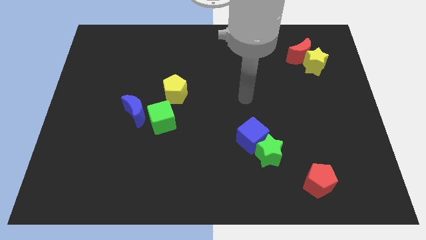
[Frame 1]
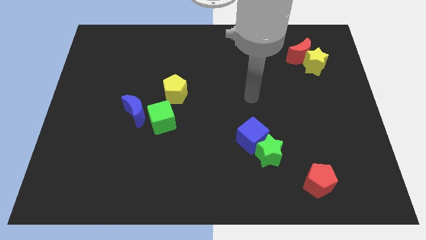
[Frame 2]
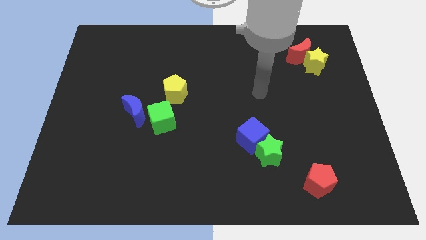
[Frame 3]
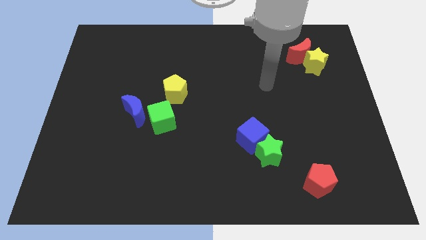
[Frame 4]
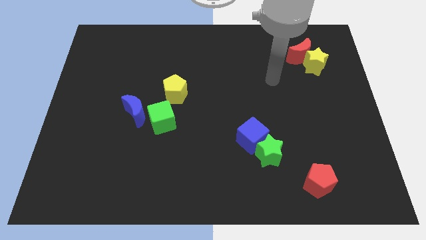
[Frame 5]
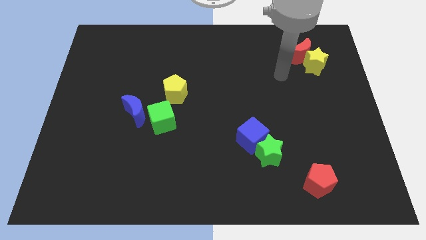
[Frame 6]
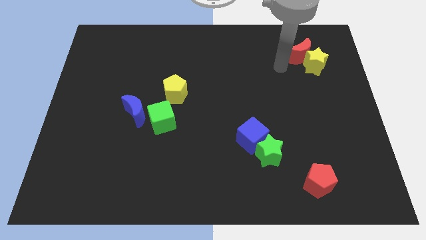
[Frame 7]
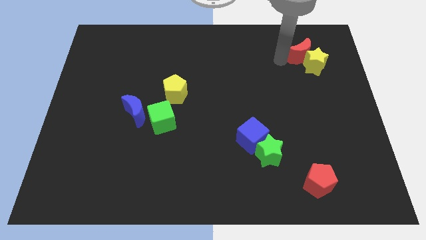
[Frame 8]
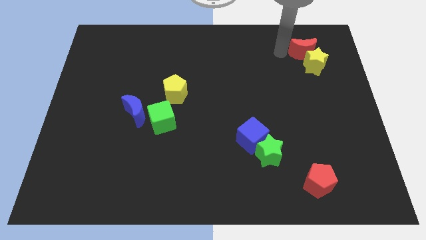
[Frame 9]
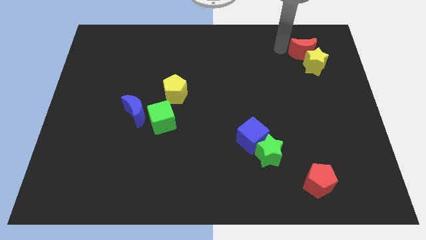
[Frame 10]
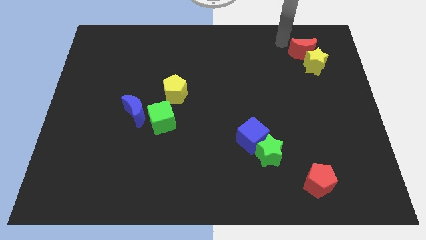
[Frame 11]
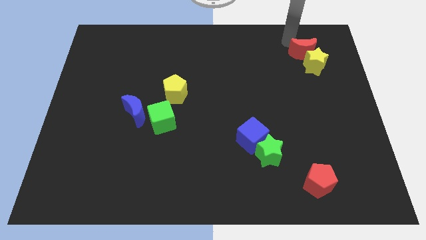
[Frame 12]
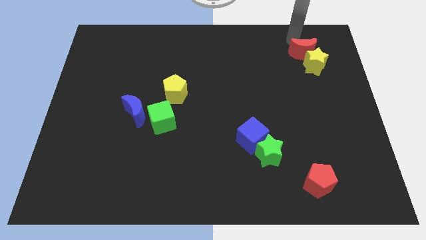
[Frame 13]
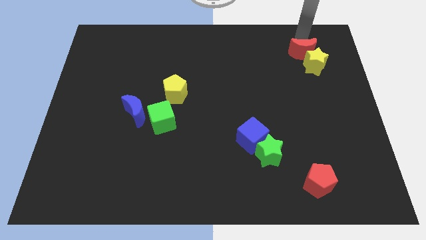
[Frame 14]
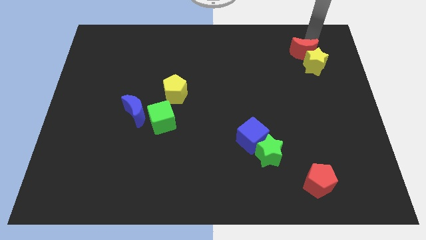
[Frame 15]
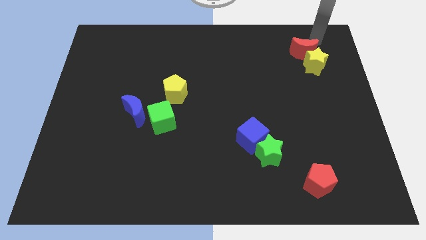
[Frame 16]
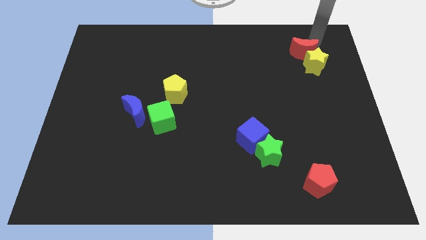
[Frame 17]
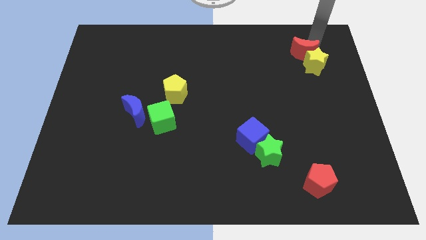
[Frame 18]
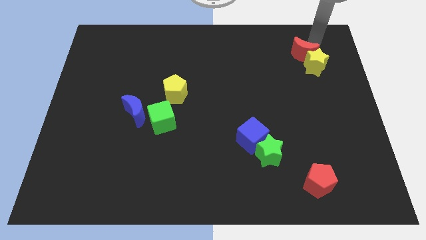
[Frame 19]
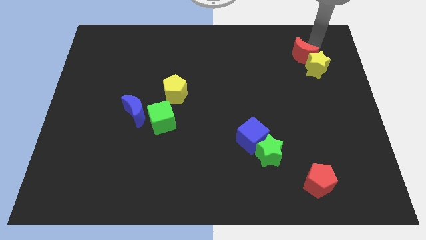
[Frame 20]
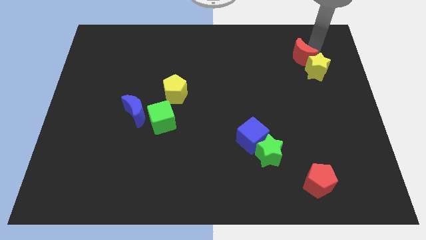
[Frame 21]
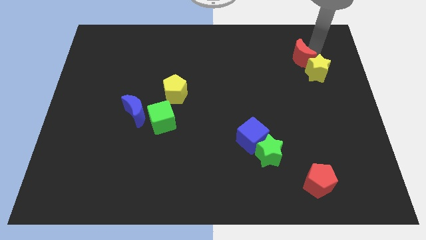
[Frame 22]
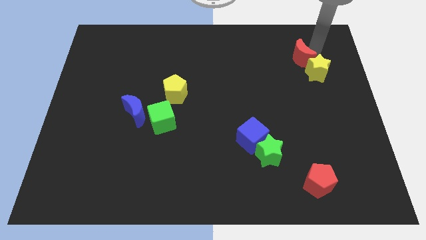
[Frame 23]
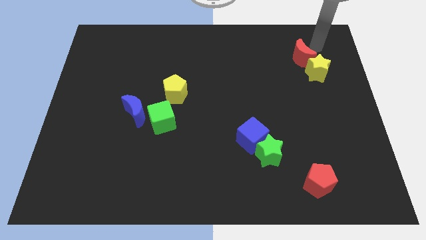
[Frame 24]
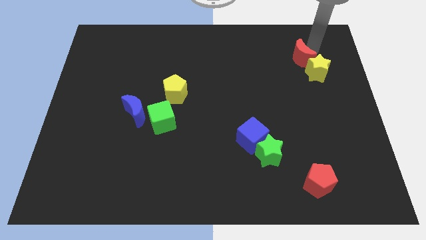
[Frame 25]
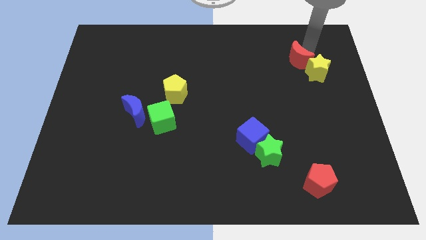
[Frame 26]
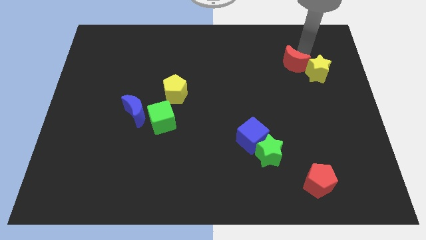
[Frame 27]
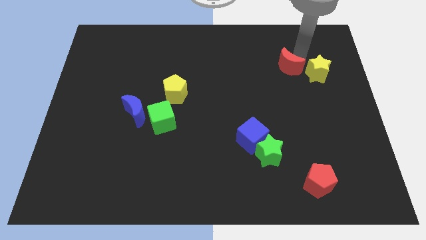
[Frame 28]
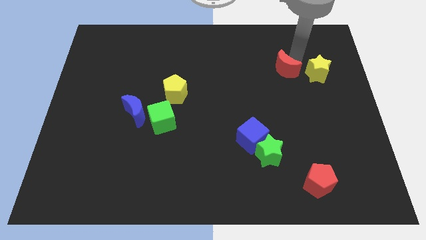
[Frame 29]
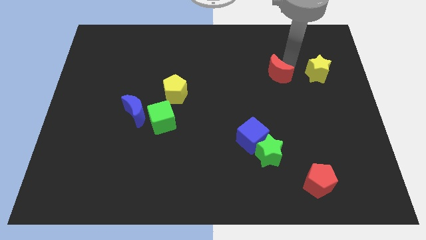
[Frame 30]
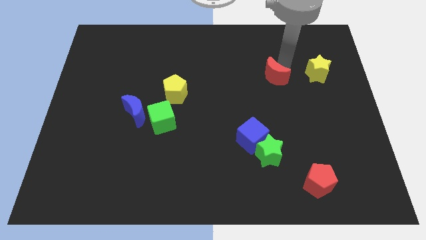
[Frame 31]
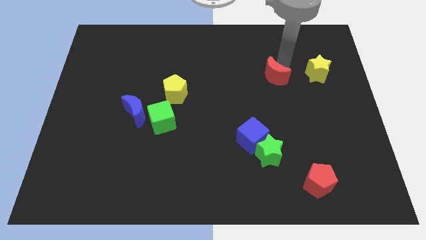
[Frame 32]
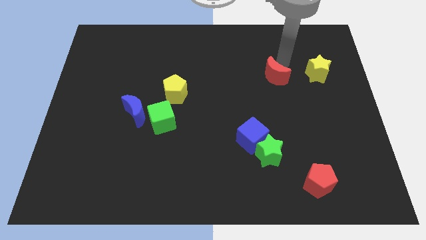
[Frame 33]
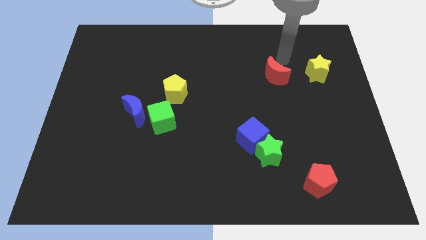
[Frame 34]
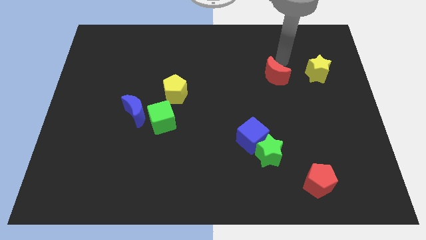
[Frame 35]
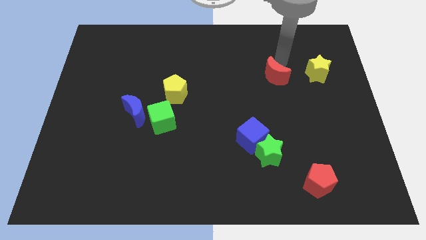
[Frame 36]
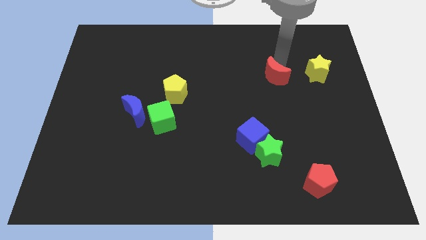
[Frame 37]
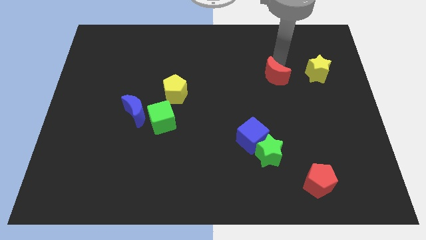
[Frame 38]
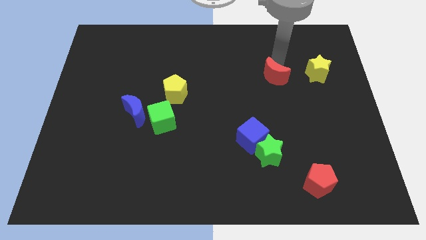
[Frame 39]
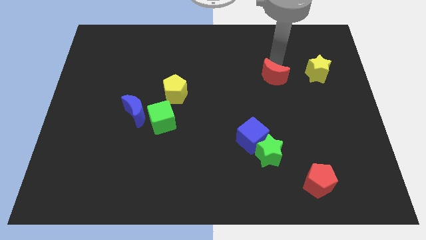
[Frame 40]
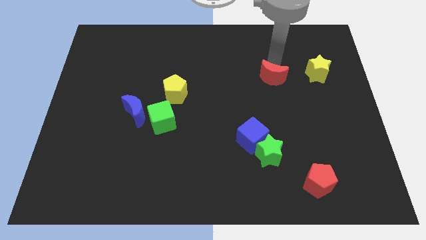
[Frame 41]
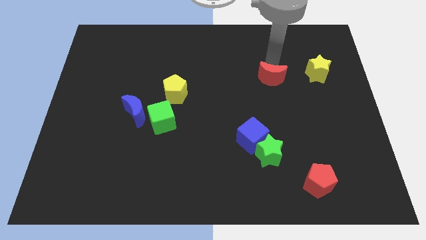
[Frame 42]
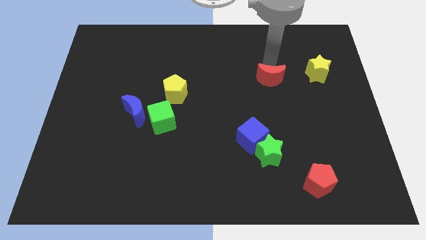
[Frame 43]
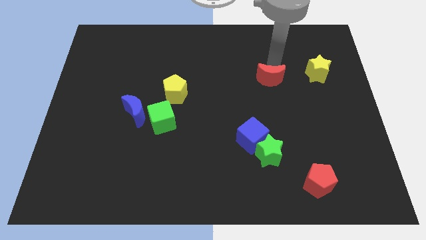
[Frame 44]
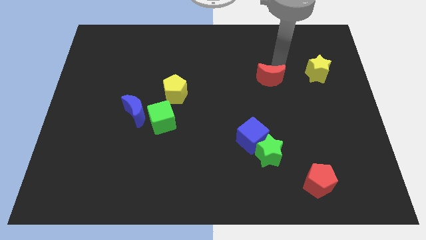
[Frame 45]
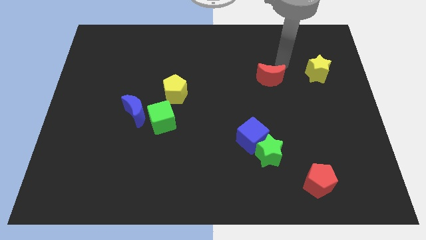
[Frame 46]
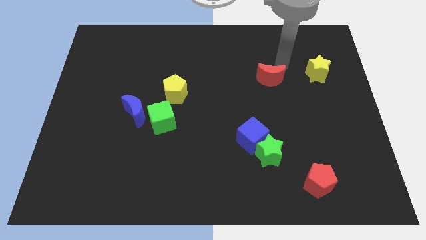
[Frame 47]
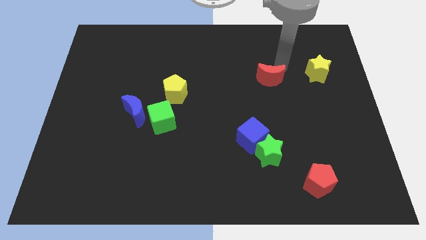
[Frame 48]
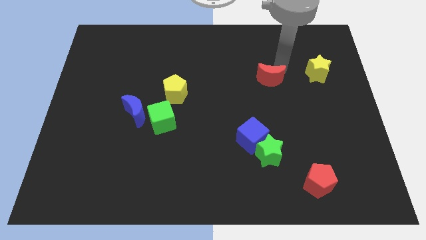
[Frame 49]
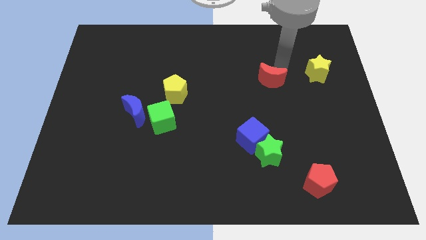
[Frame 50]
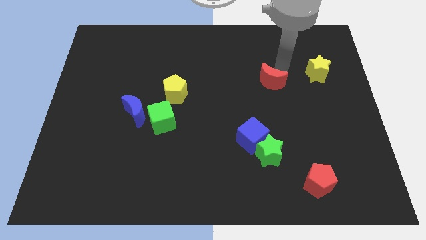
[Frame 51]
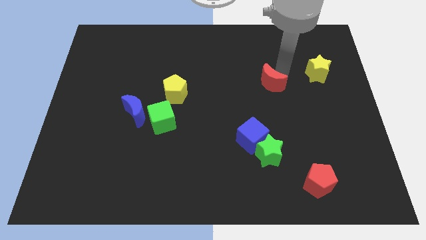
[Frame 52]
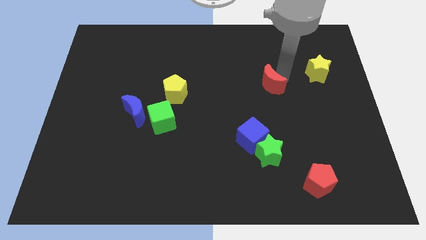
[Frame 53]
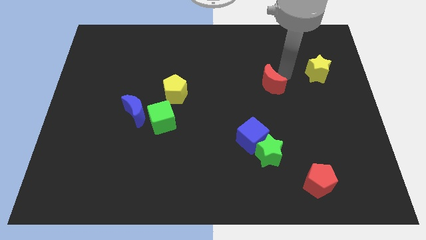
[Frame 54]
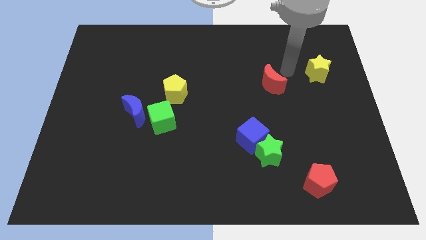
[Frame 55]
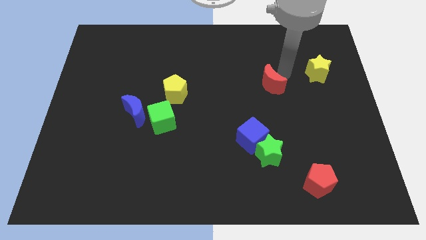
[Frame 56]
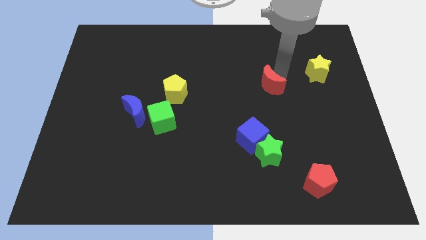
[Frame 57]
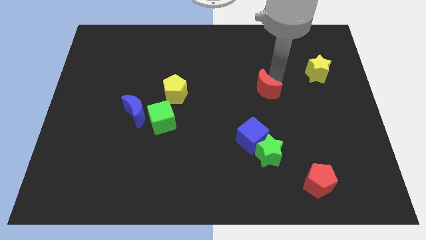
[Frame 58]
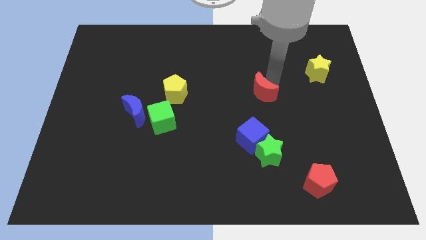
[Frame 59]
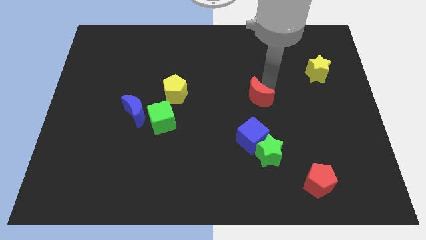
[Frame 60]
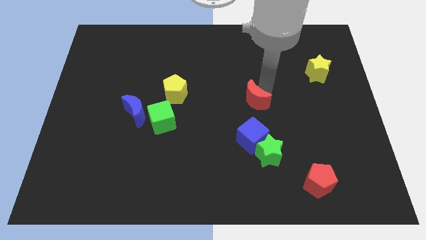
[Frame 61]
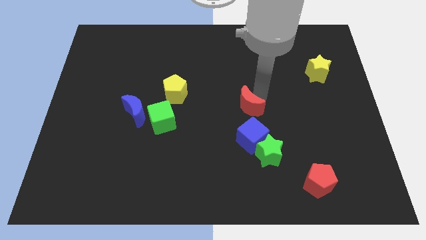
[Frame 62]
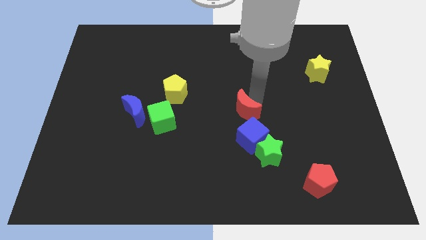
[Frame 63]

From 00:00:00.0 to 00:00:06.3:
slide the red moon to the top left of the blue cube

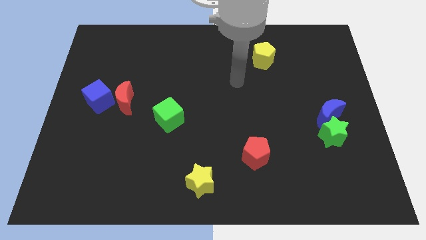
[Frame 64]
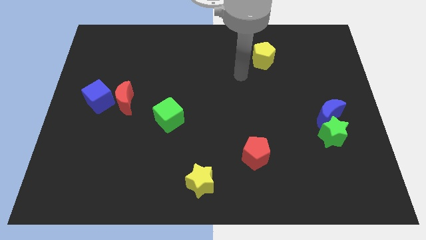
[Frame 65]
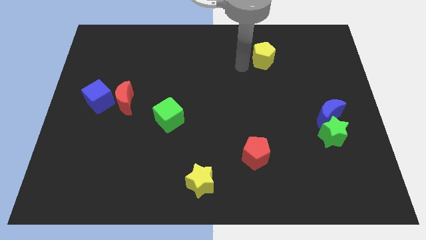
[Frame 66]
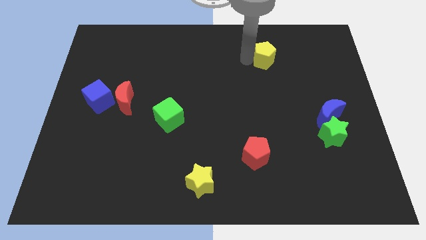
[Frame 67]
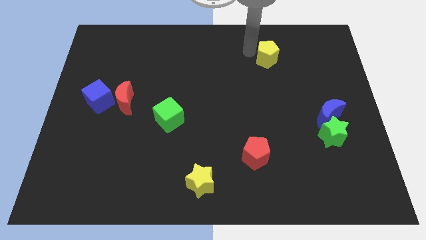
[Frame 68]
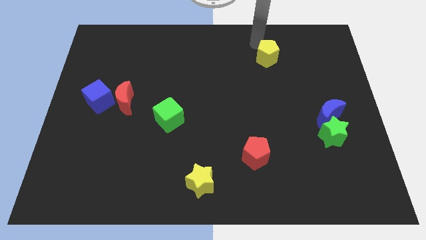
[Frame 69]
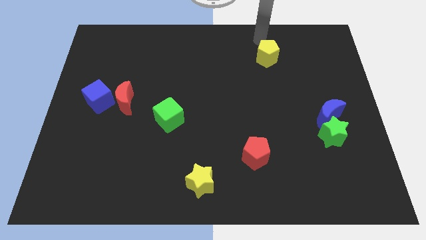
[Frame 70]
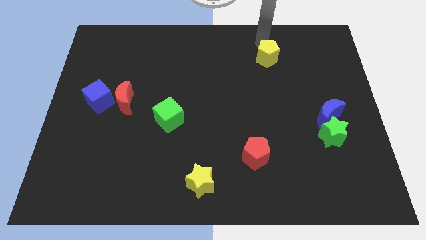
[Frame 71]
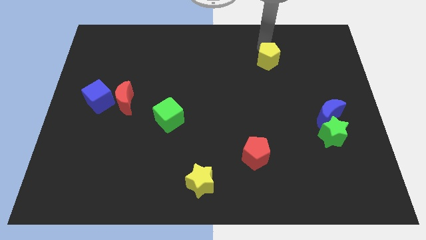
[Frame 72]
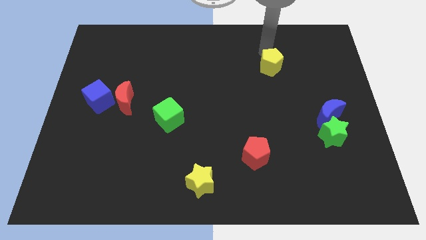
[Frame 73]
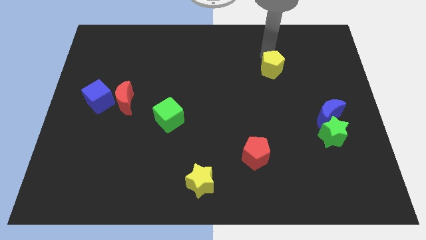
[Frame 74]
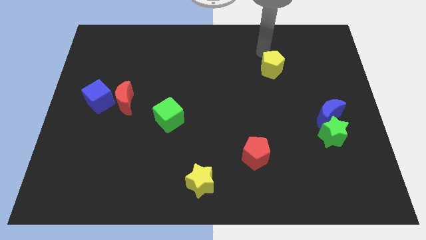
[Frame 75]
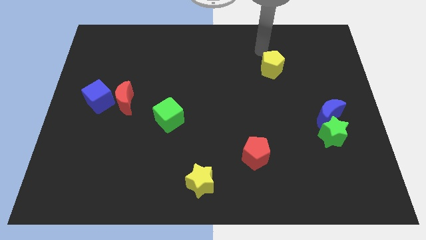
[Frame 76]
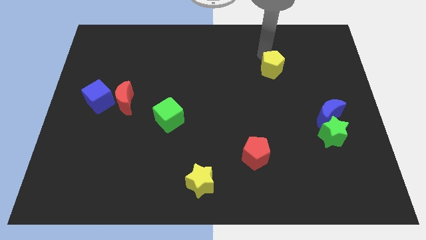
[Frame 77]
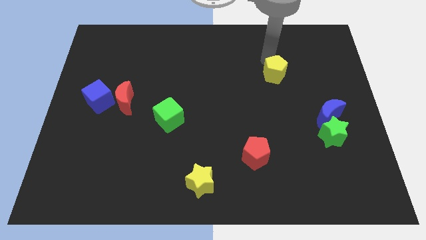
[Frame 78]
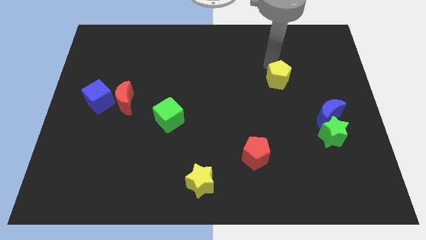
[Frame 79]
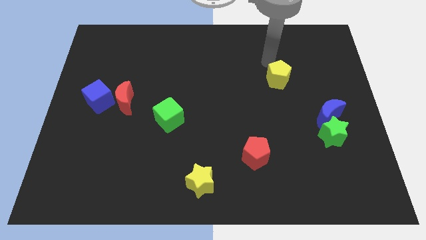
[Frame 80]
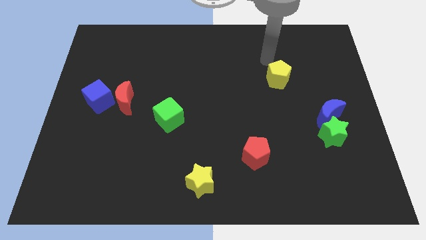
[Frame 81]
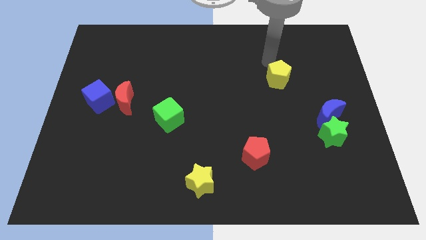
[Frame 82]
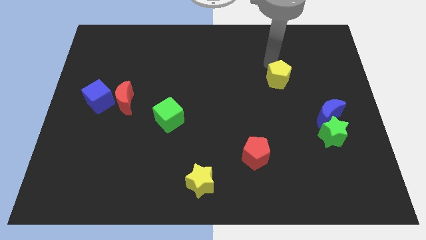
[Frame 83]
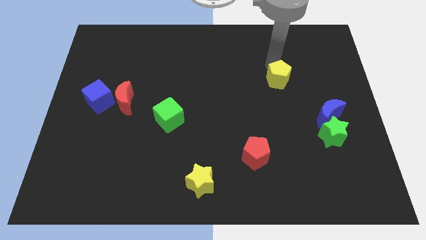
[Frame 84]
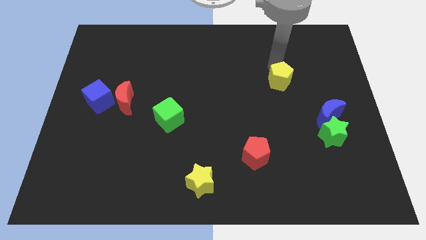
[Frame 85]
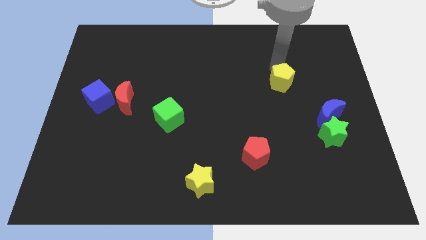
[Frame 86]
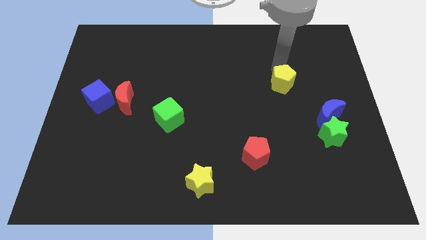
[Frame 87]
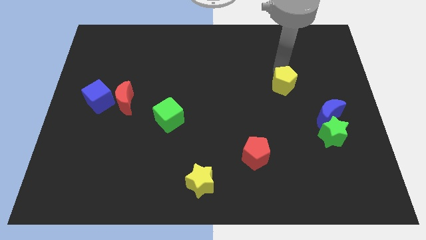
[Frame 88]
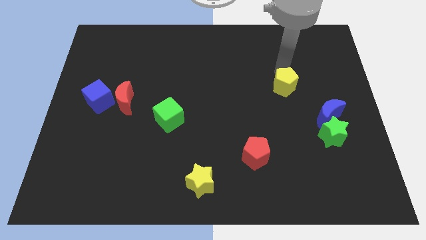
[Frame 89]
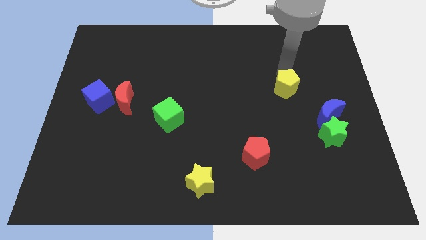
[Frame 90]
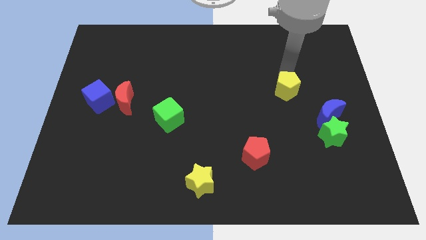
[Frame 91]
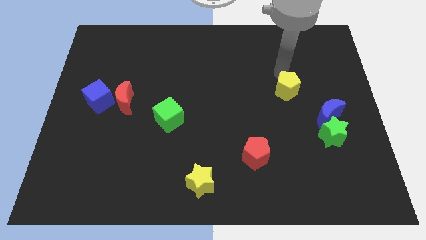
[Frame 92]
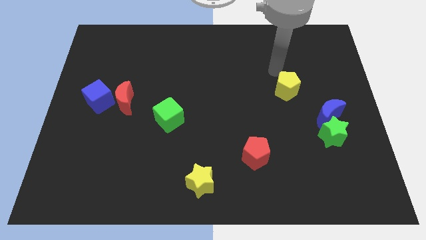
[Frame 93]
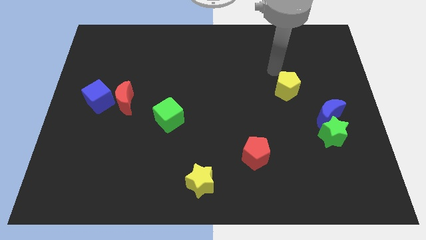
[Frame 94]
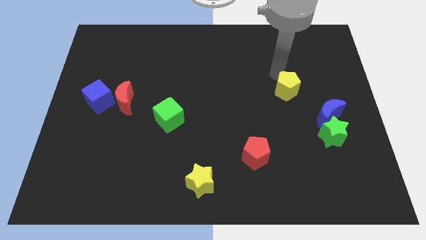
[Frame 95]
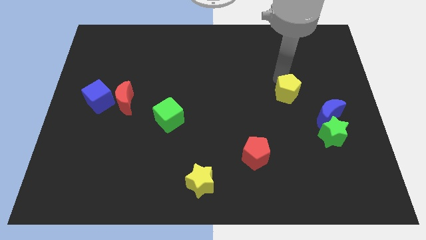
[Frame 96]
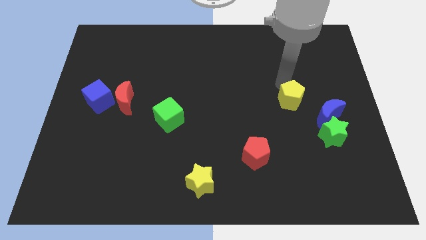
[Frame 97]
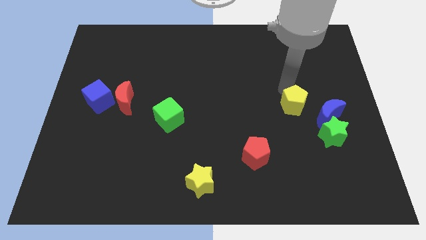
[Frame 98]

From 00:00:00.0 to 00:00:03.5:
put the yellow pentagon diagonally up and to the left of the green star
